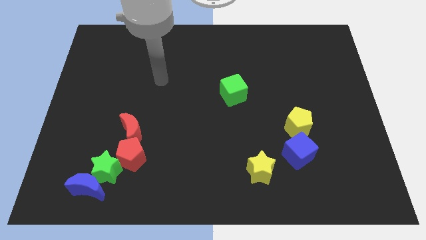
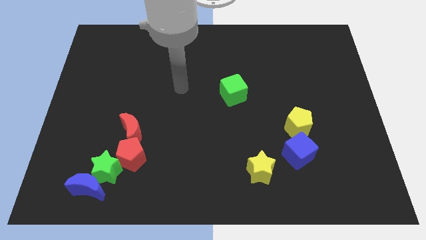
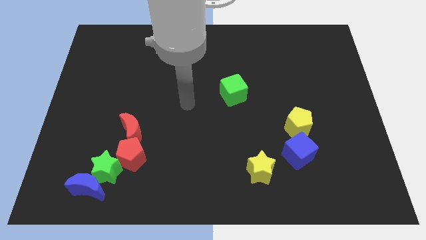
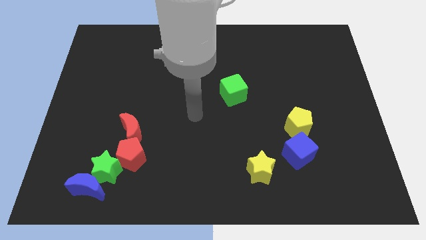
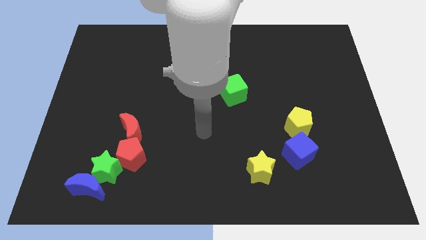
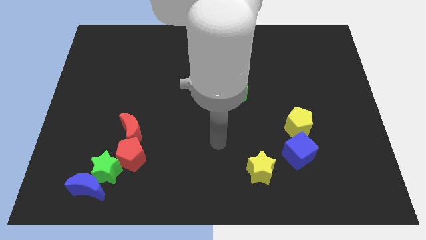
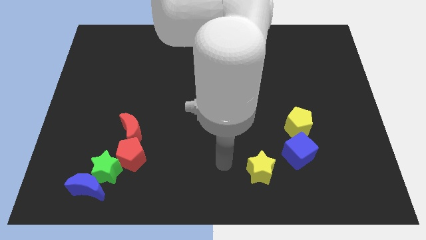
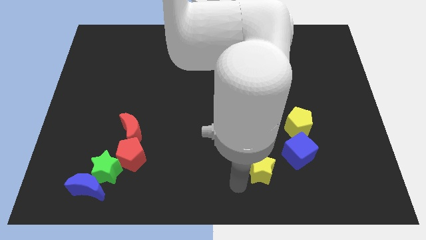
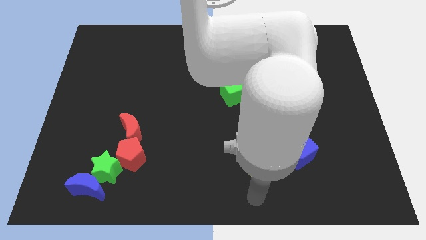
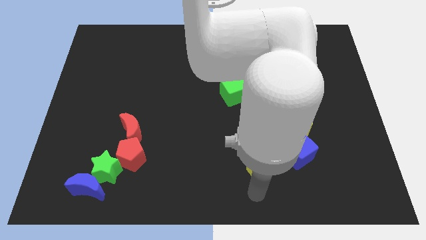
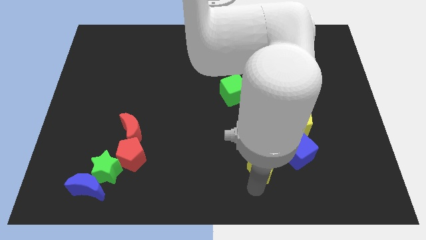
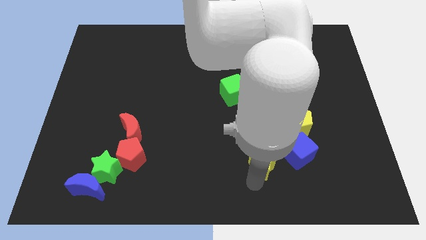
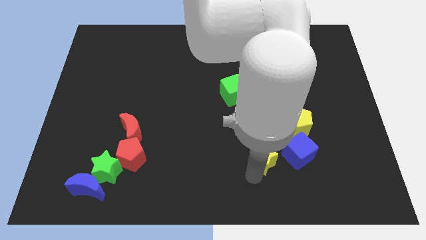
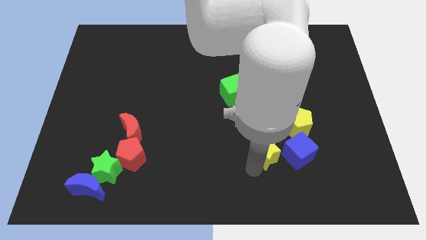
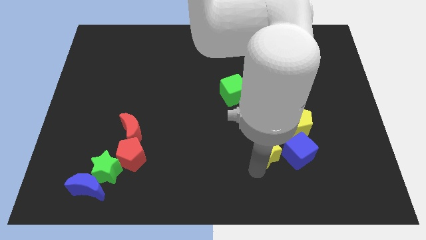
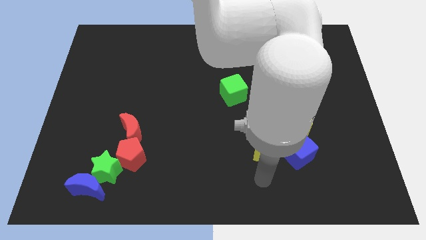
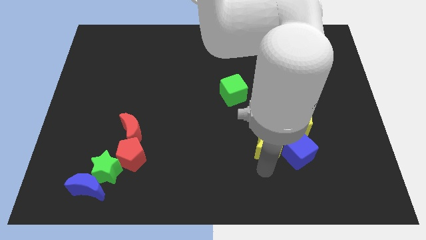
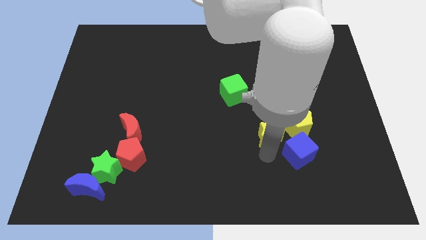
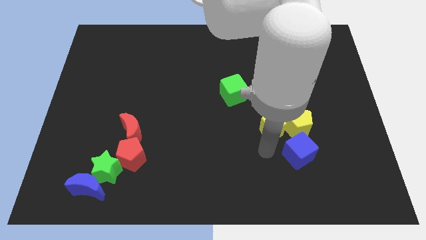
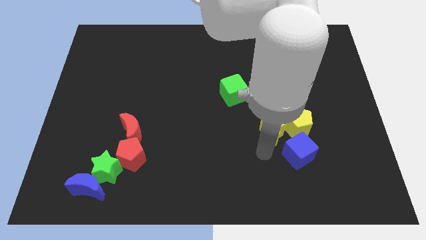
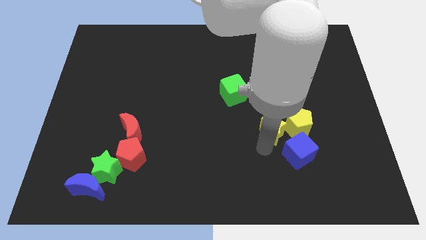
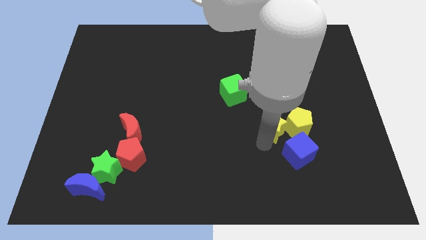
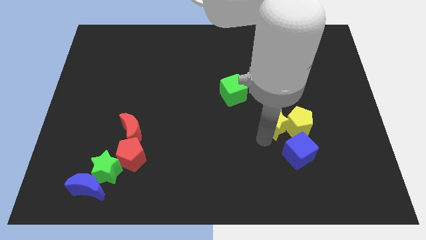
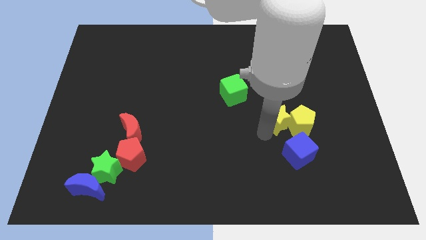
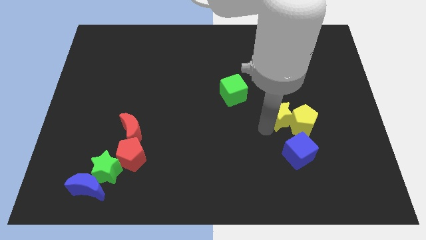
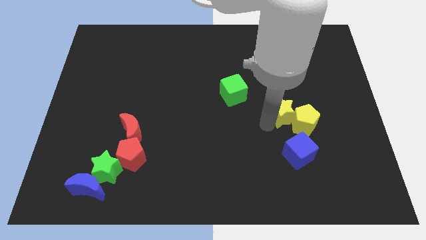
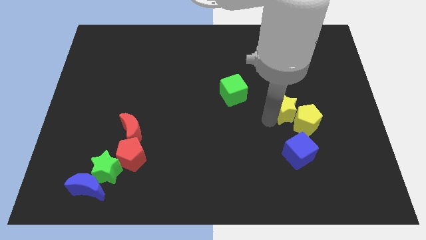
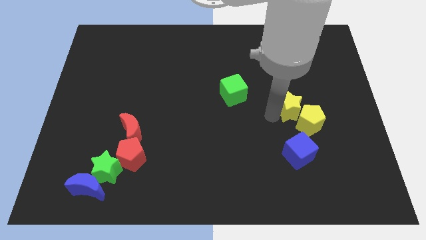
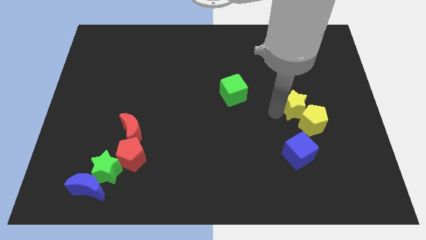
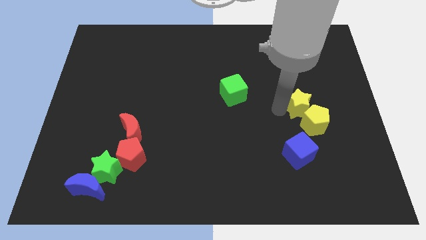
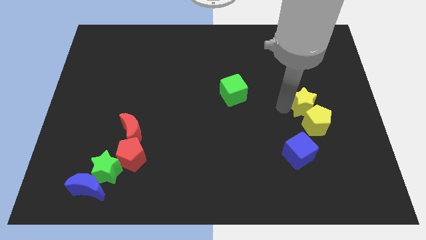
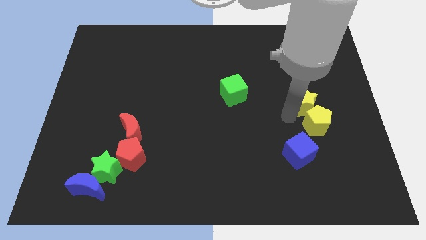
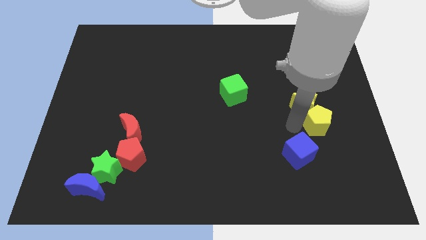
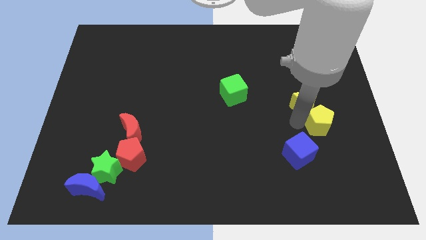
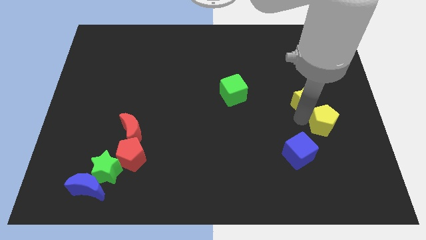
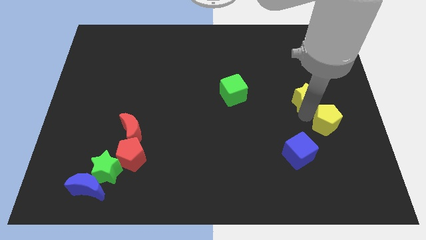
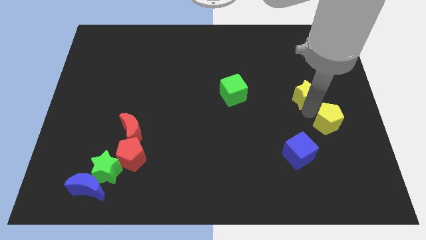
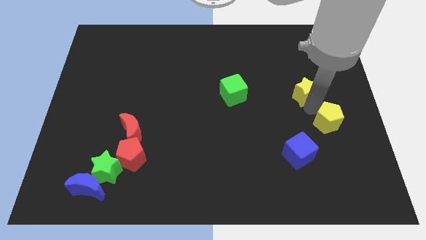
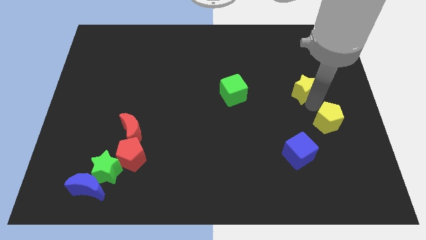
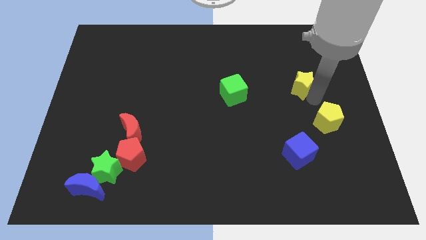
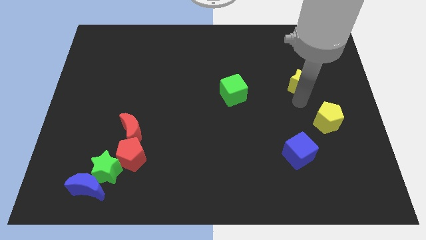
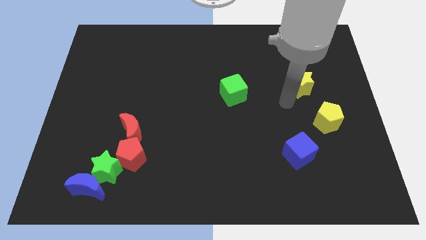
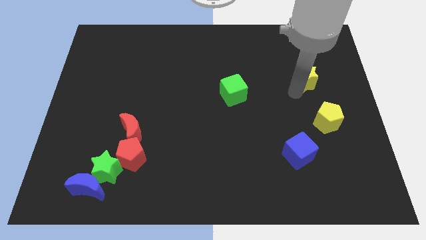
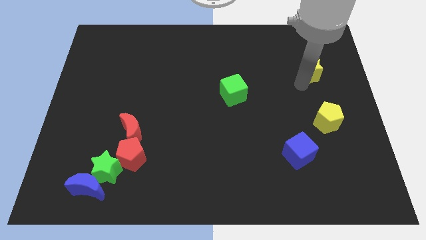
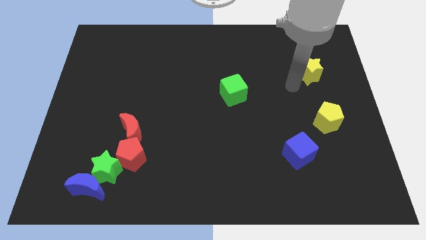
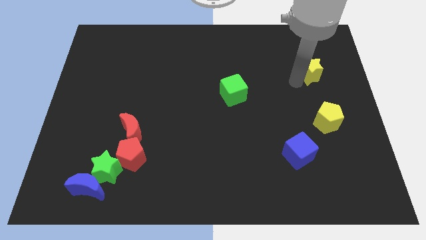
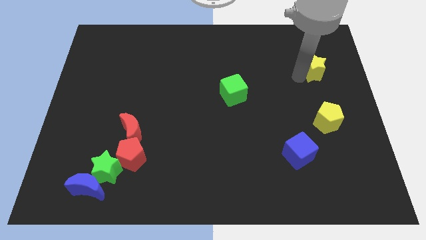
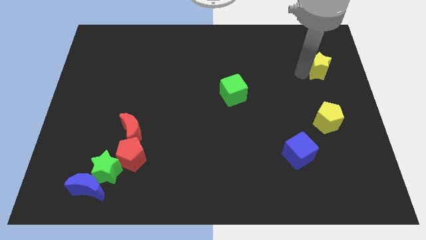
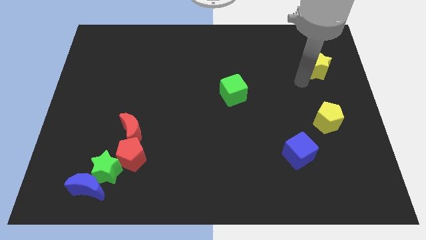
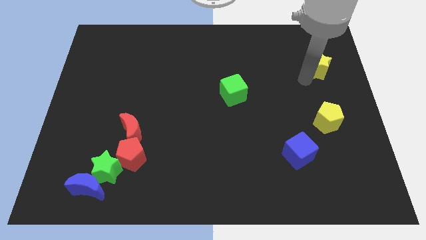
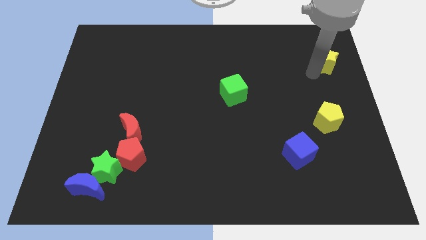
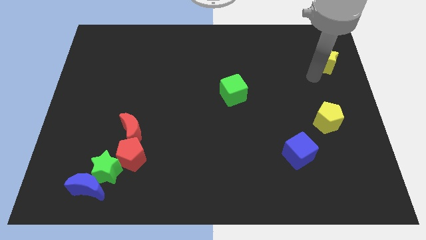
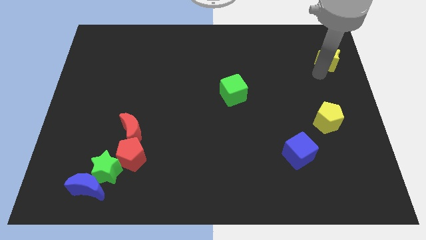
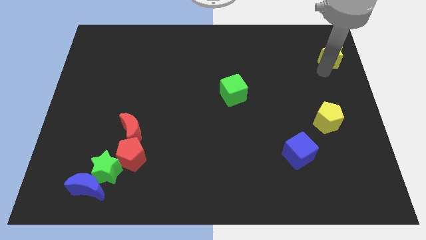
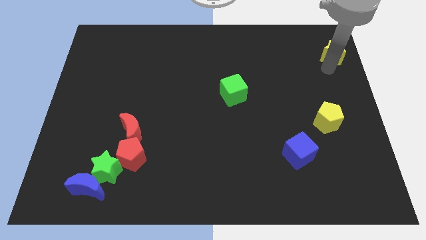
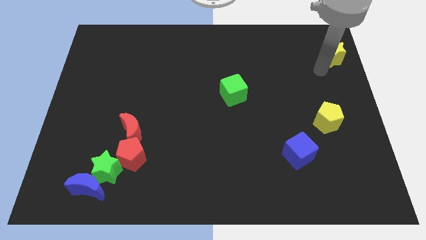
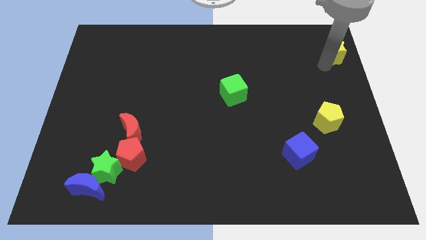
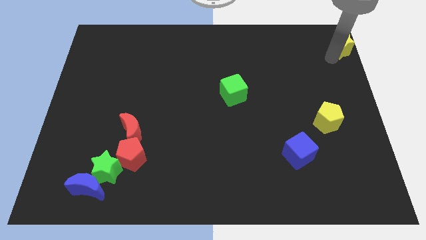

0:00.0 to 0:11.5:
push the yellow star to the top right corner

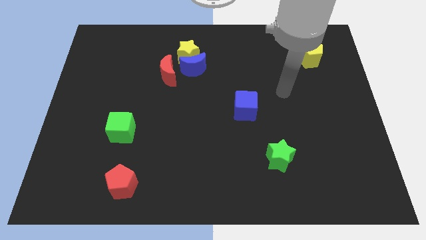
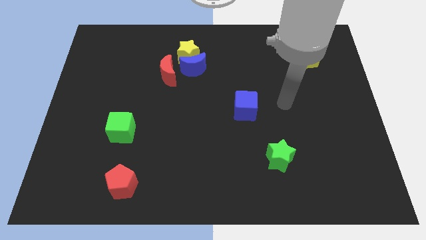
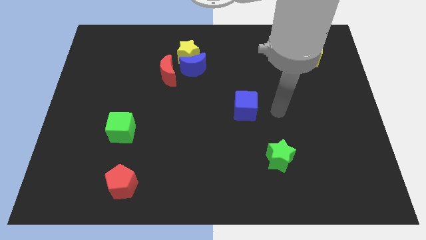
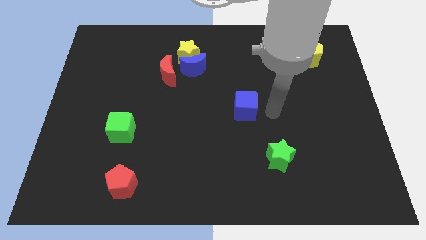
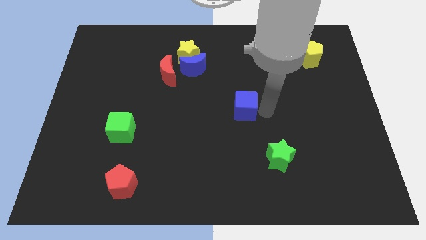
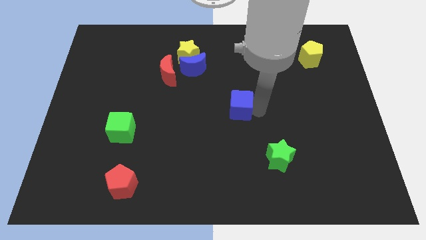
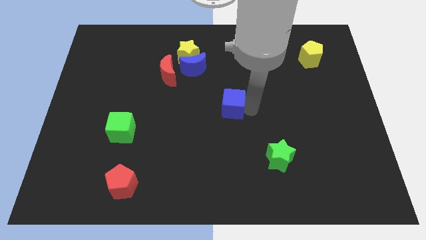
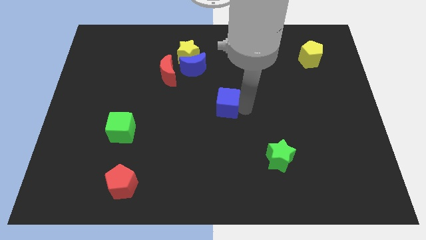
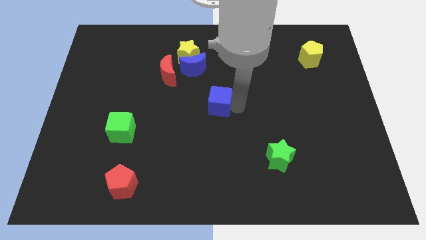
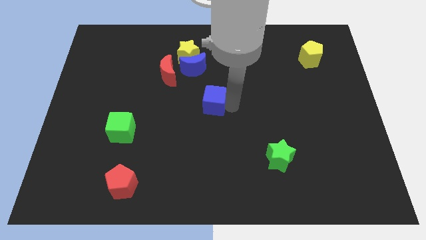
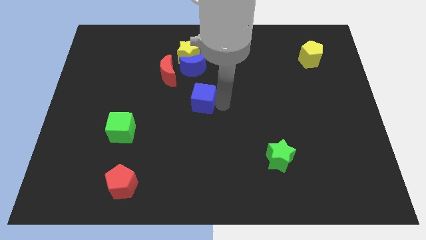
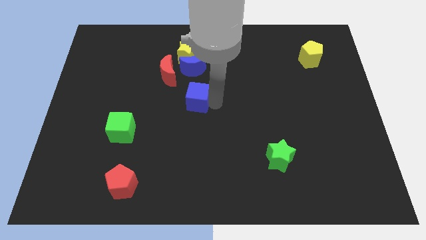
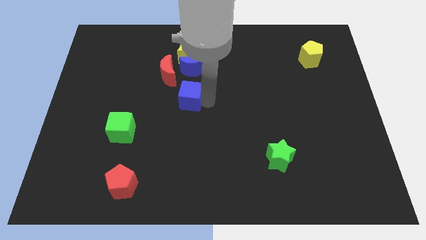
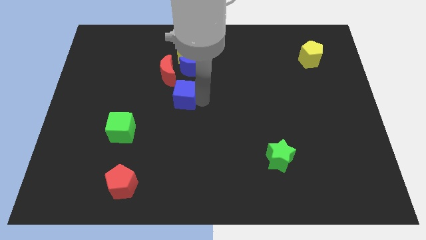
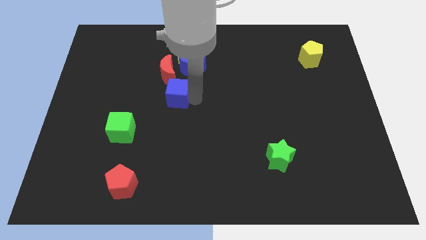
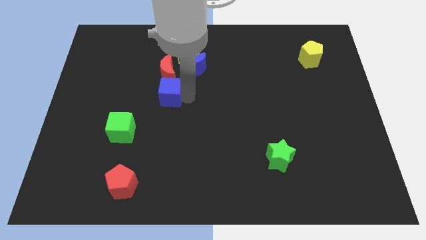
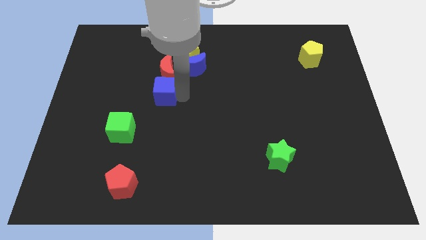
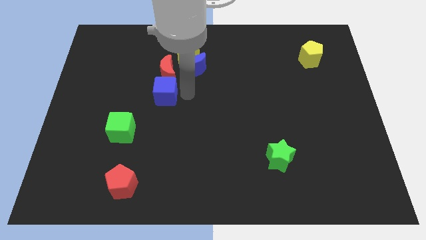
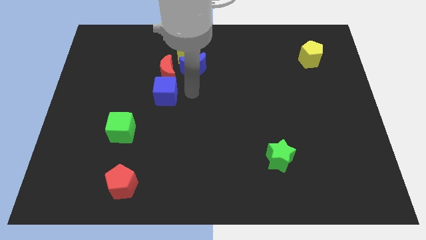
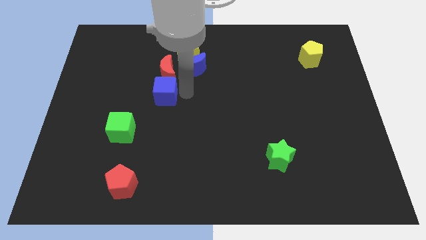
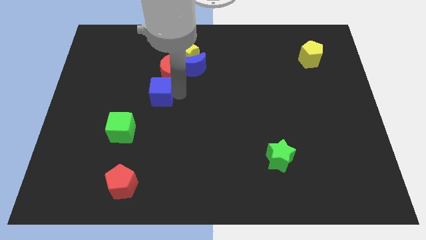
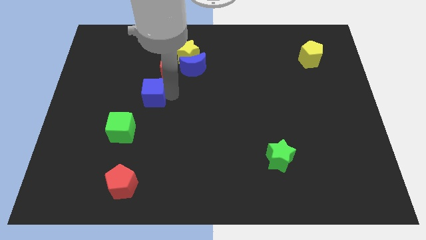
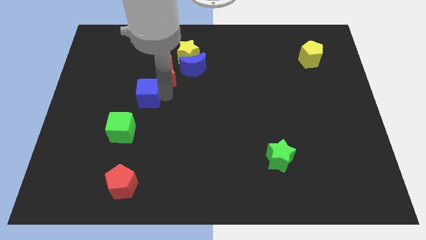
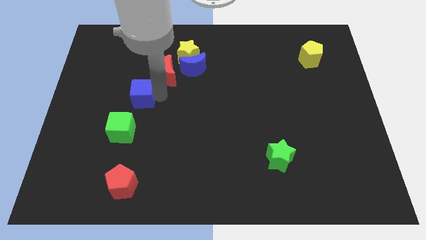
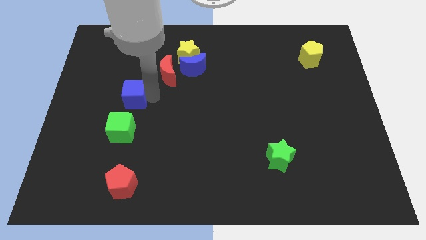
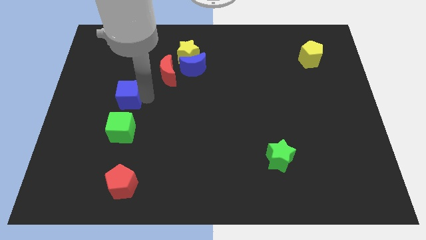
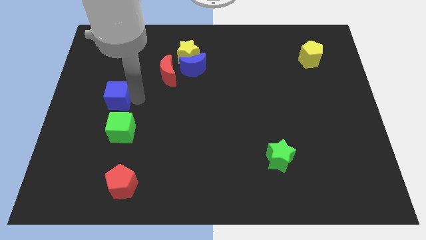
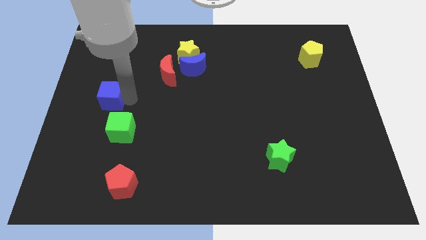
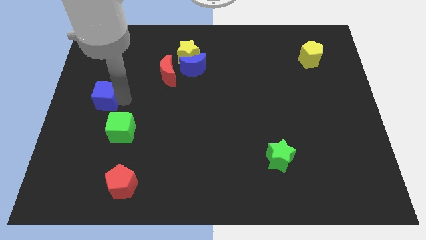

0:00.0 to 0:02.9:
put the blue cube to the center left
